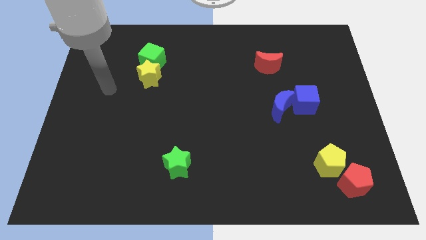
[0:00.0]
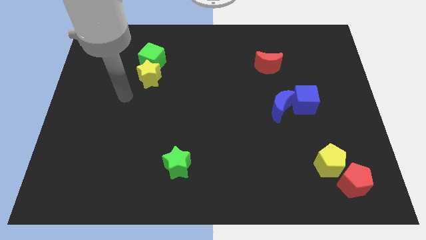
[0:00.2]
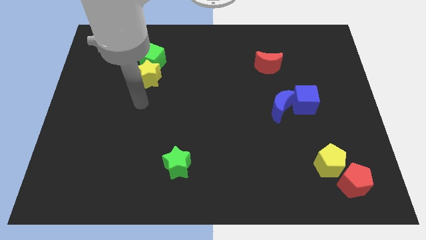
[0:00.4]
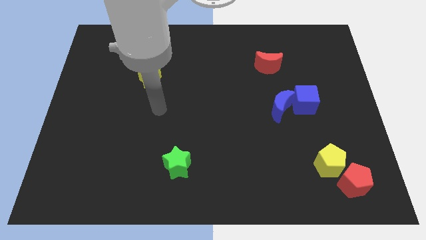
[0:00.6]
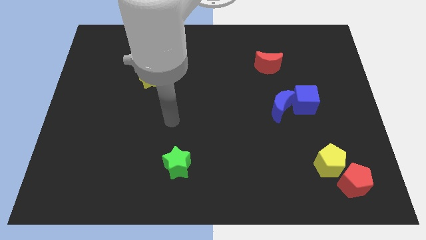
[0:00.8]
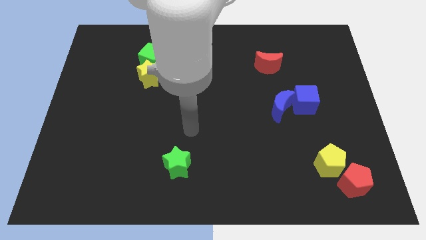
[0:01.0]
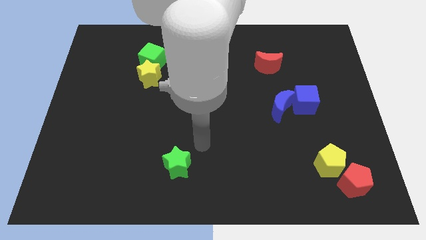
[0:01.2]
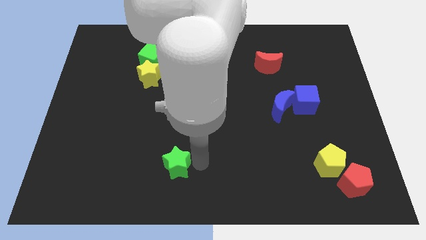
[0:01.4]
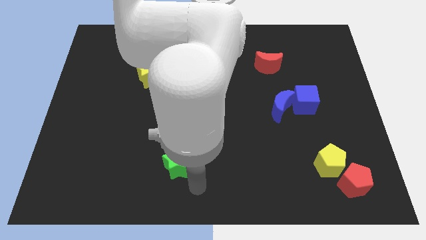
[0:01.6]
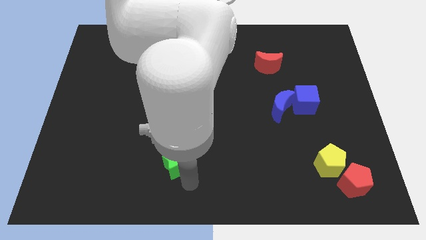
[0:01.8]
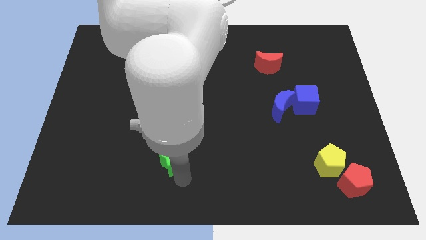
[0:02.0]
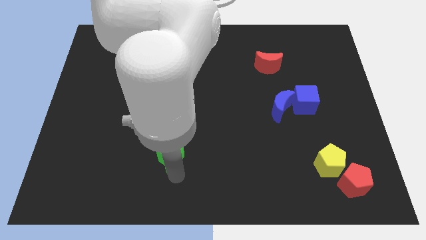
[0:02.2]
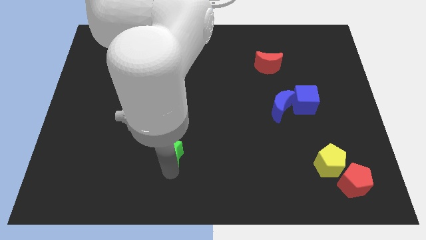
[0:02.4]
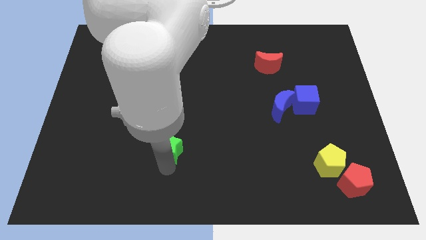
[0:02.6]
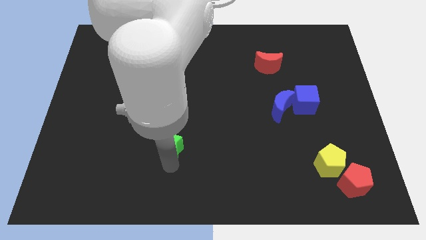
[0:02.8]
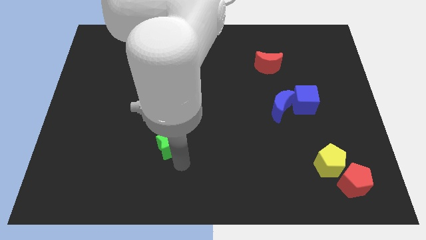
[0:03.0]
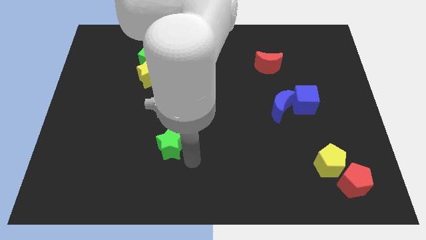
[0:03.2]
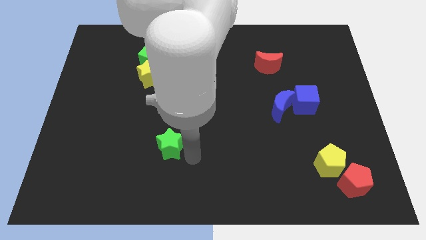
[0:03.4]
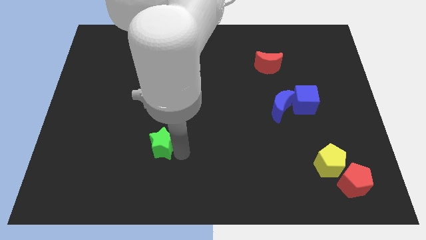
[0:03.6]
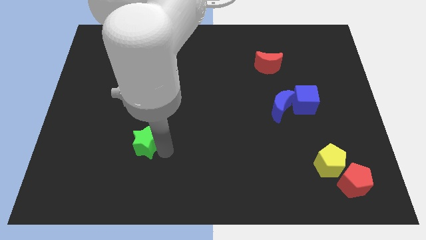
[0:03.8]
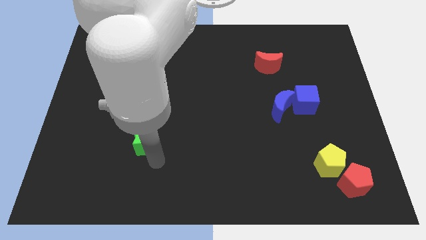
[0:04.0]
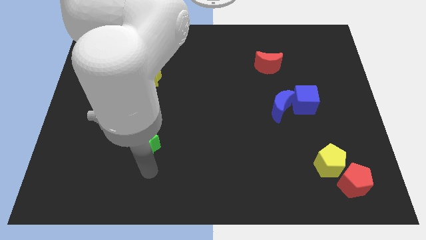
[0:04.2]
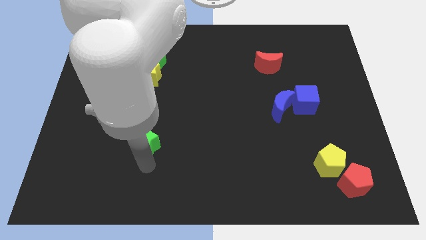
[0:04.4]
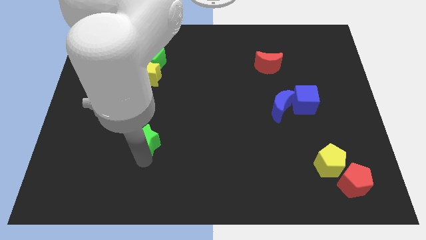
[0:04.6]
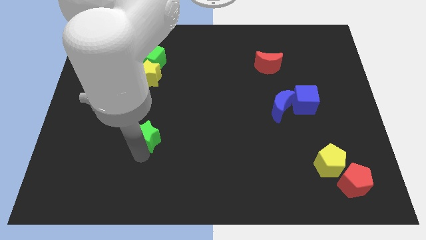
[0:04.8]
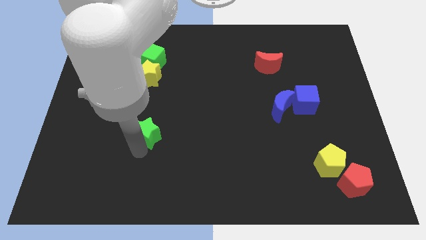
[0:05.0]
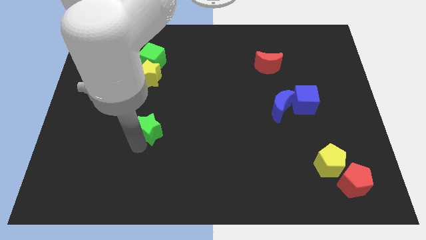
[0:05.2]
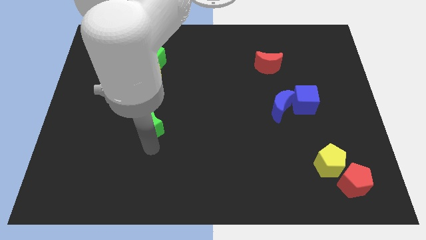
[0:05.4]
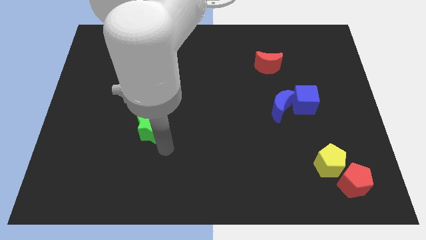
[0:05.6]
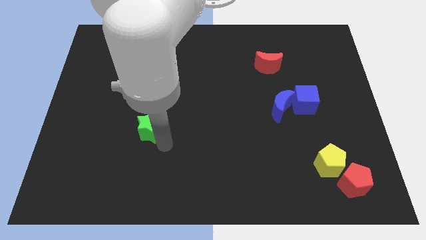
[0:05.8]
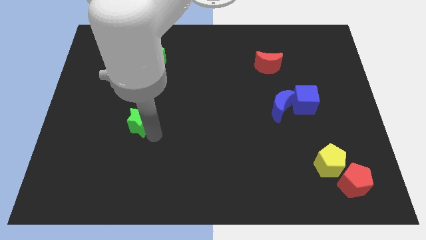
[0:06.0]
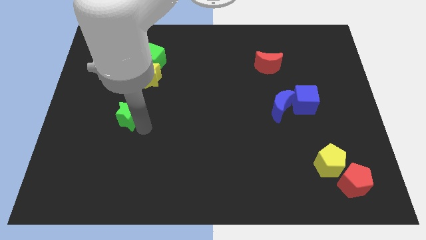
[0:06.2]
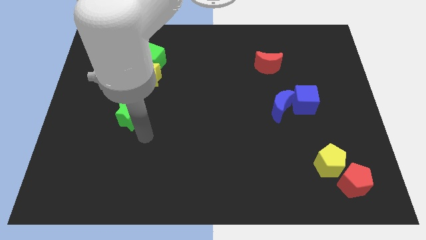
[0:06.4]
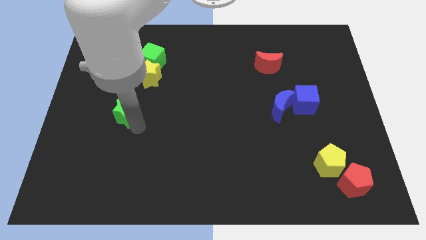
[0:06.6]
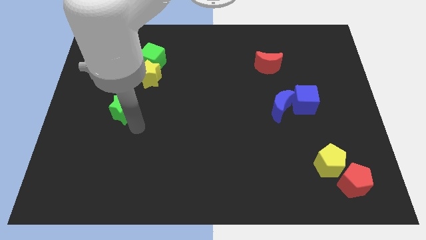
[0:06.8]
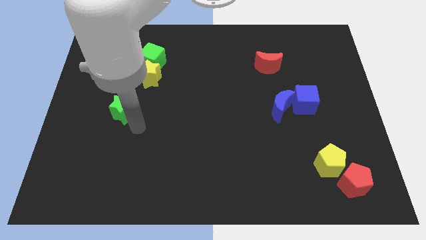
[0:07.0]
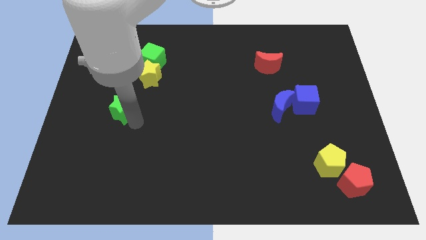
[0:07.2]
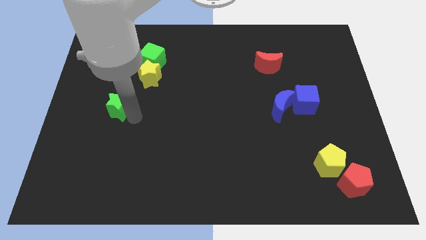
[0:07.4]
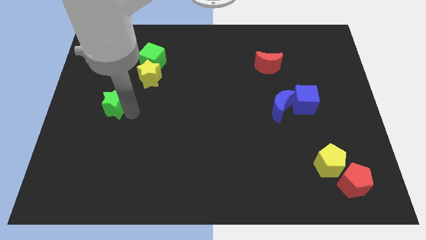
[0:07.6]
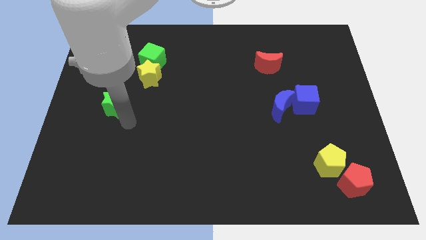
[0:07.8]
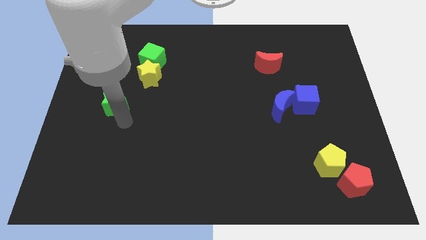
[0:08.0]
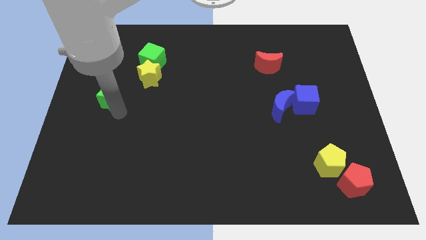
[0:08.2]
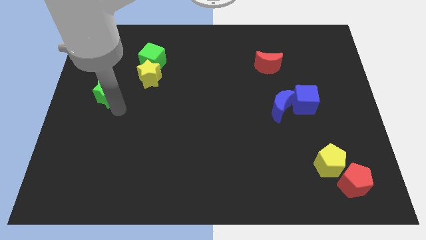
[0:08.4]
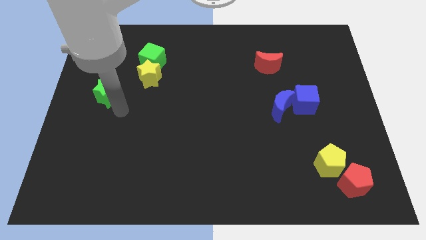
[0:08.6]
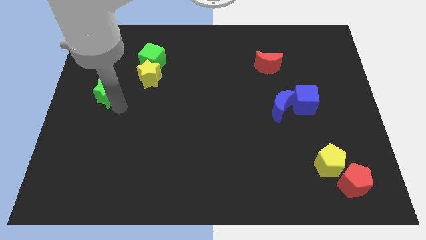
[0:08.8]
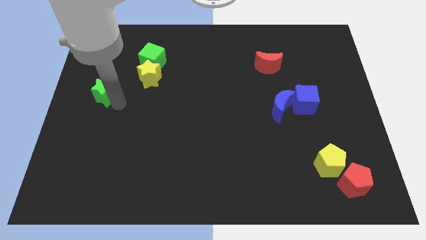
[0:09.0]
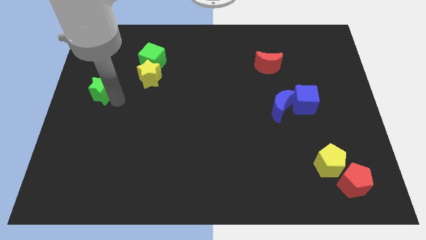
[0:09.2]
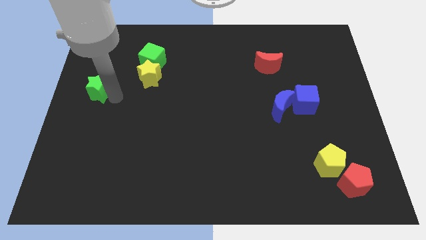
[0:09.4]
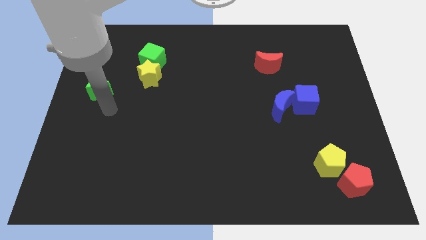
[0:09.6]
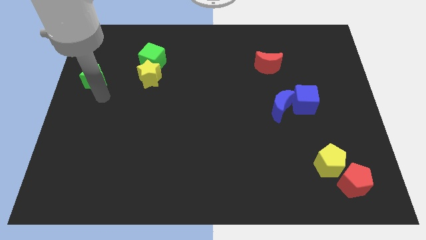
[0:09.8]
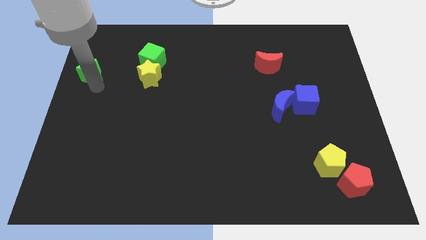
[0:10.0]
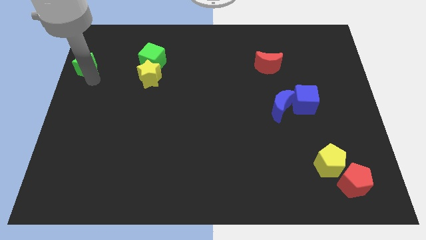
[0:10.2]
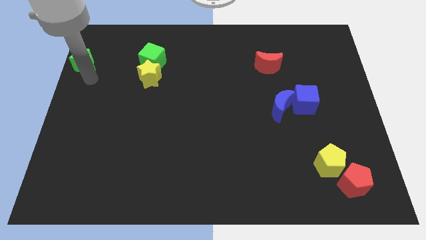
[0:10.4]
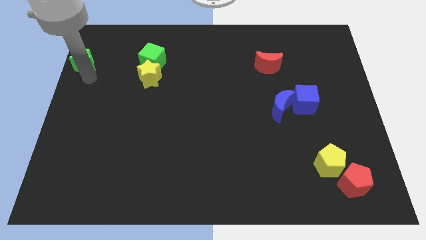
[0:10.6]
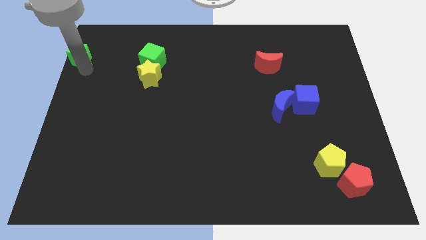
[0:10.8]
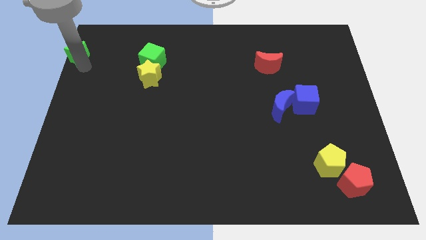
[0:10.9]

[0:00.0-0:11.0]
slide the green star to the upper left corner

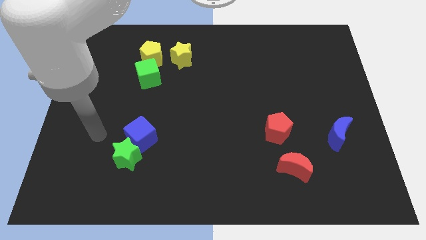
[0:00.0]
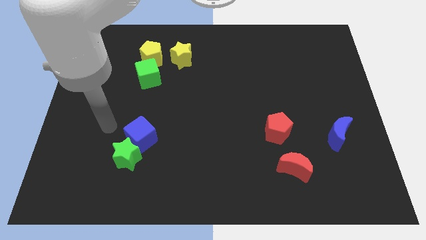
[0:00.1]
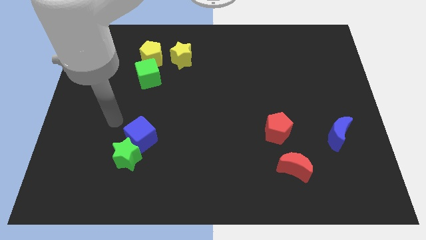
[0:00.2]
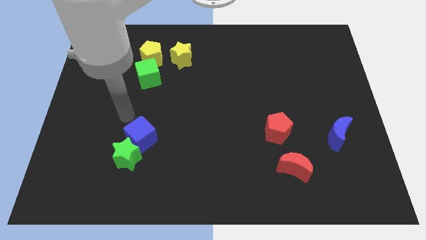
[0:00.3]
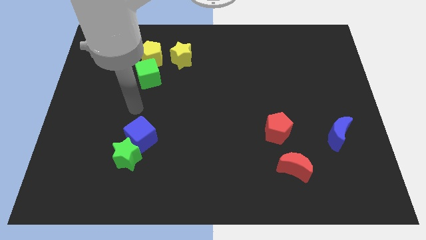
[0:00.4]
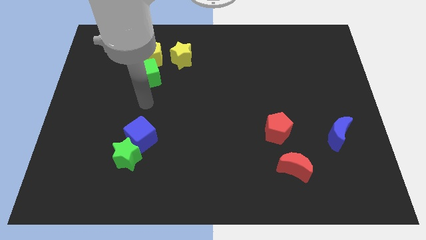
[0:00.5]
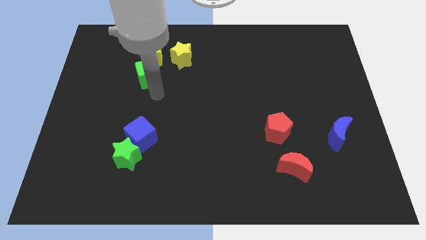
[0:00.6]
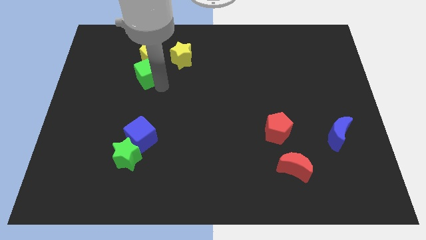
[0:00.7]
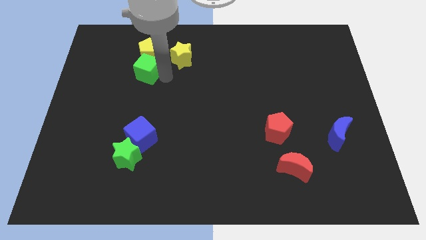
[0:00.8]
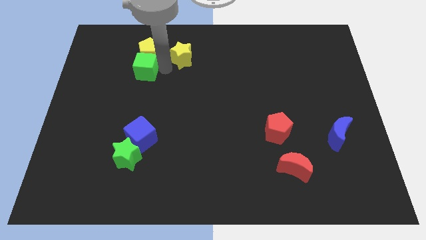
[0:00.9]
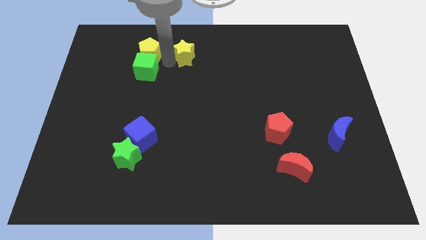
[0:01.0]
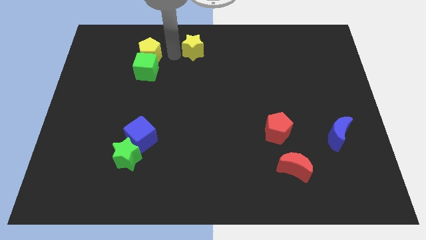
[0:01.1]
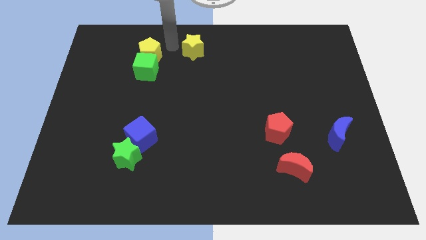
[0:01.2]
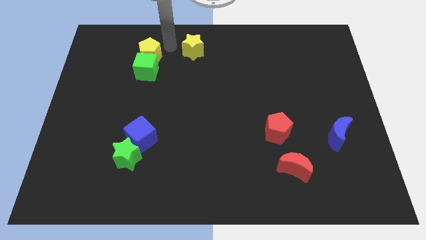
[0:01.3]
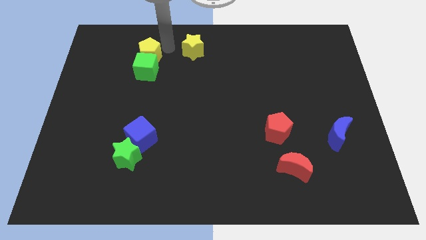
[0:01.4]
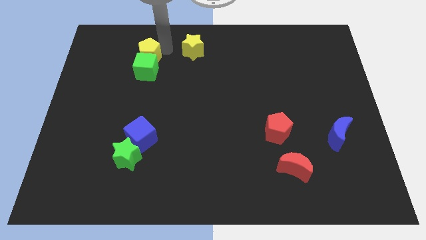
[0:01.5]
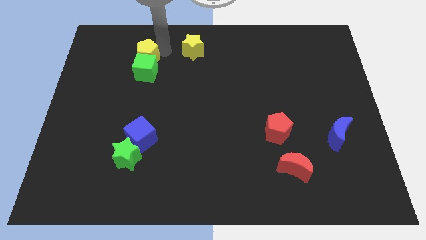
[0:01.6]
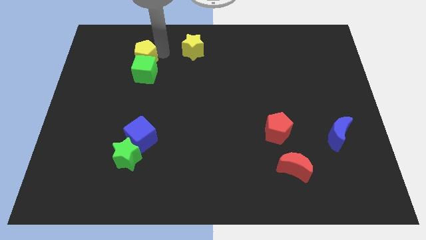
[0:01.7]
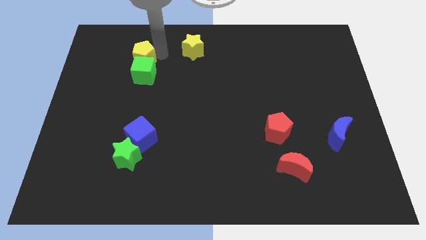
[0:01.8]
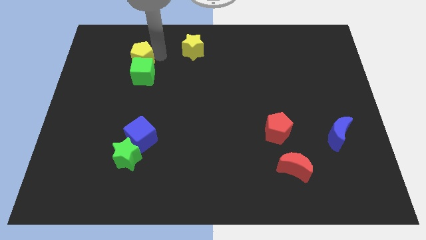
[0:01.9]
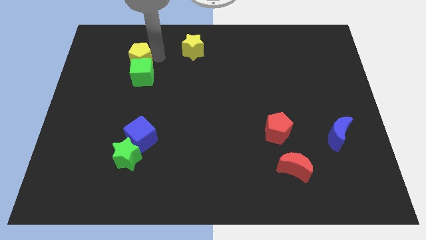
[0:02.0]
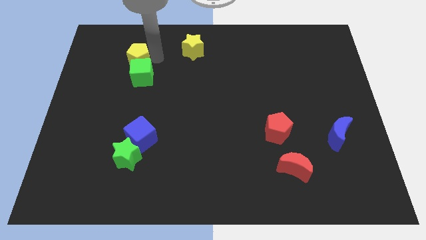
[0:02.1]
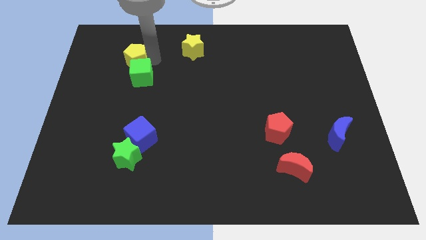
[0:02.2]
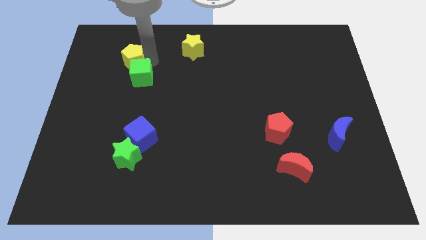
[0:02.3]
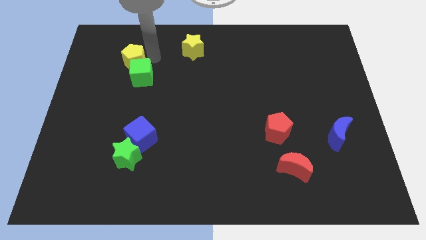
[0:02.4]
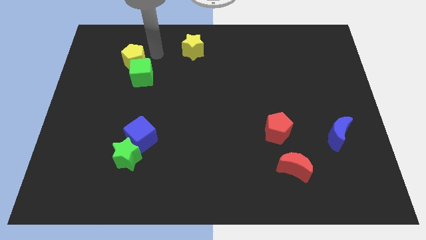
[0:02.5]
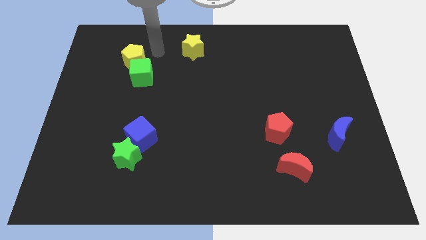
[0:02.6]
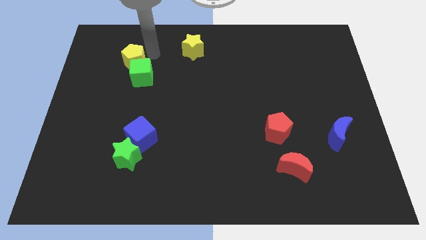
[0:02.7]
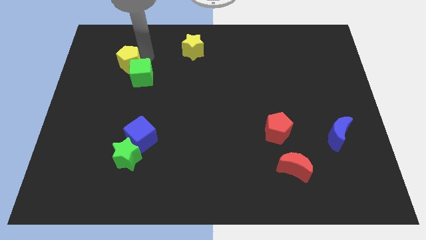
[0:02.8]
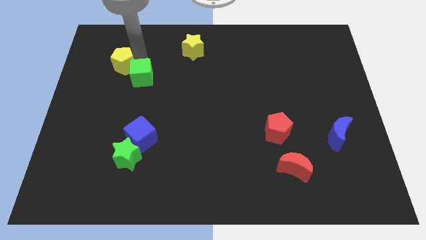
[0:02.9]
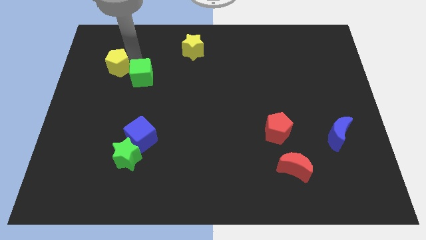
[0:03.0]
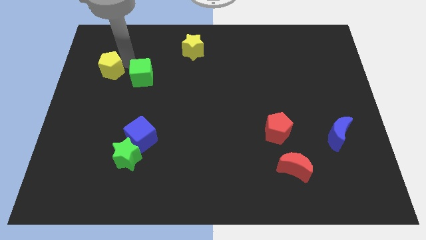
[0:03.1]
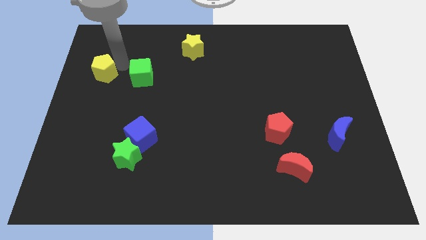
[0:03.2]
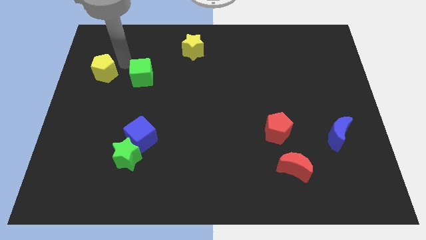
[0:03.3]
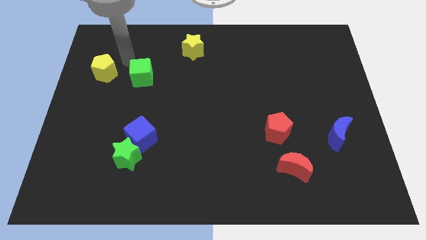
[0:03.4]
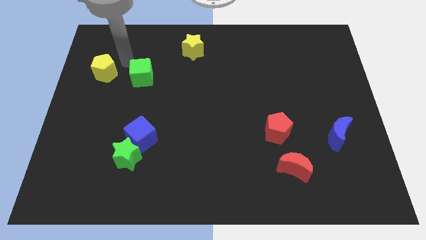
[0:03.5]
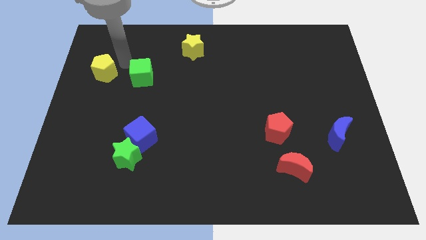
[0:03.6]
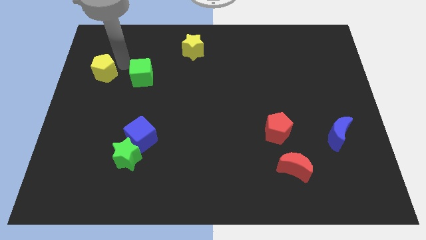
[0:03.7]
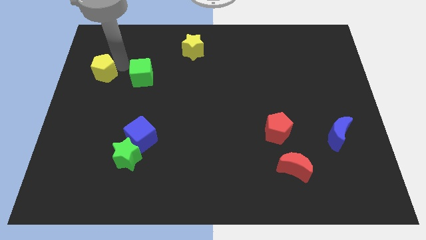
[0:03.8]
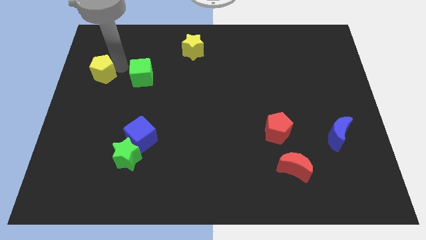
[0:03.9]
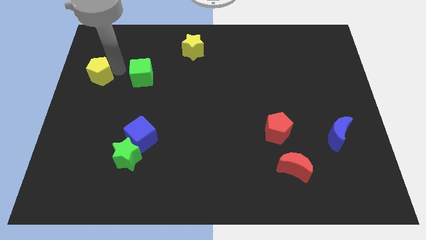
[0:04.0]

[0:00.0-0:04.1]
put the yellow pentagon to the center left
